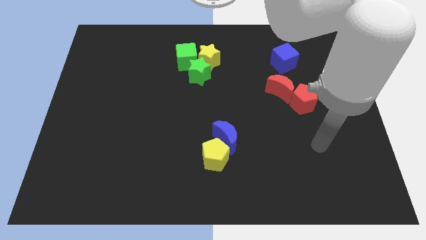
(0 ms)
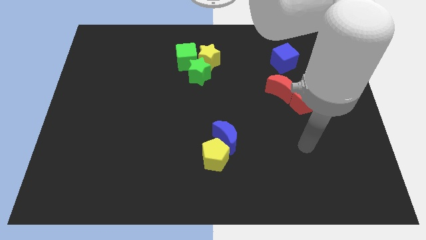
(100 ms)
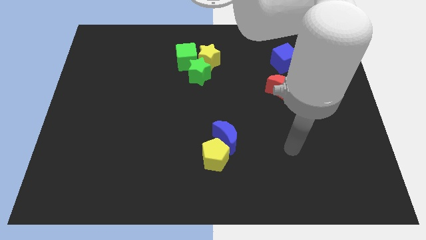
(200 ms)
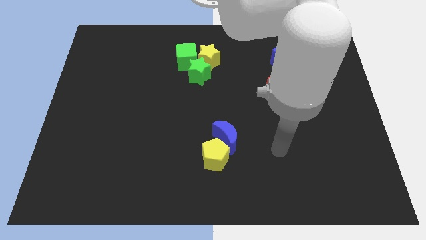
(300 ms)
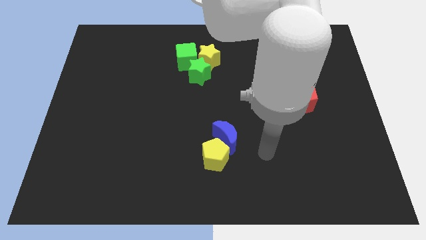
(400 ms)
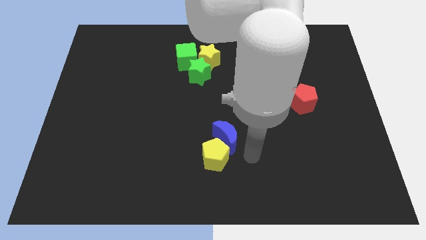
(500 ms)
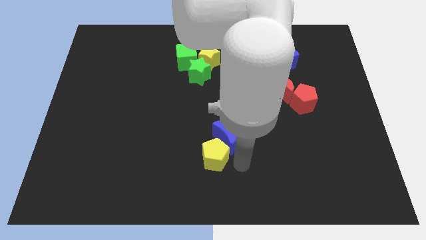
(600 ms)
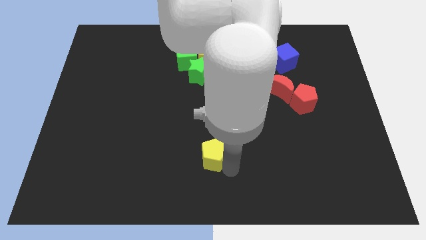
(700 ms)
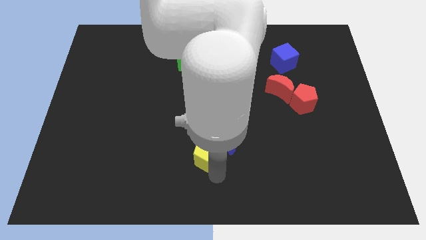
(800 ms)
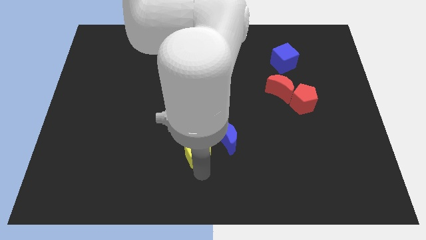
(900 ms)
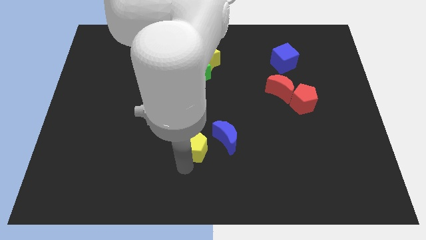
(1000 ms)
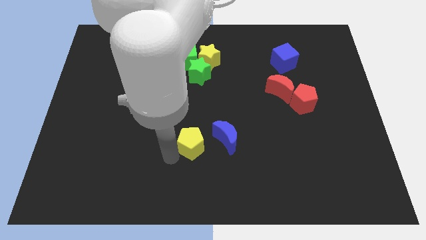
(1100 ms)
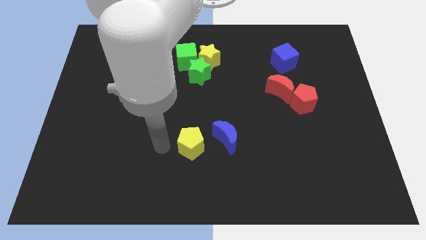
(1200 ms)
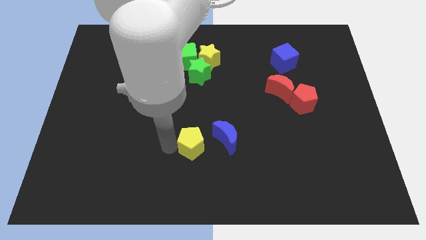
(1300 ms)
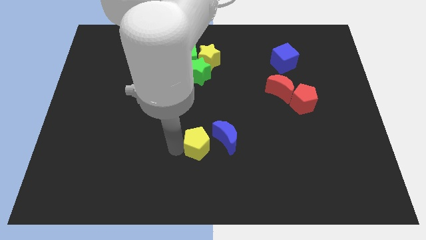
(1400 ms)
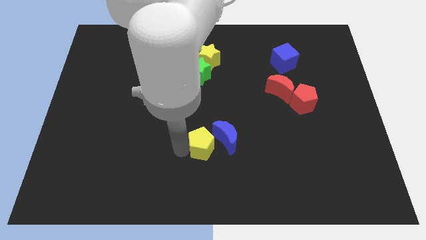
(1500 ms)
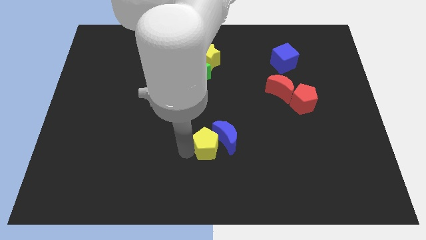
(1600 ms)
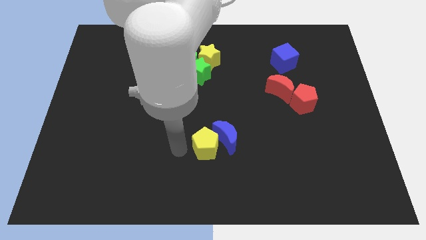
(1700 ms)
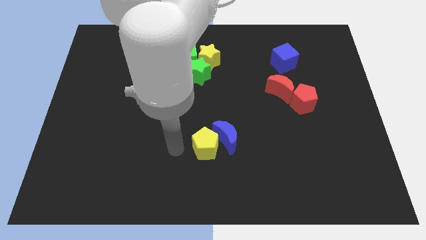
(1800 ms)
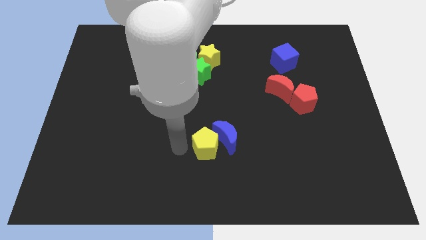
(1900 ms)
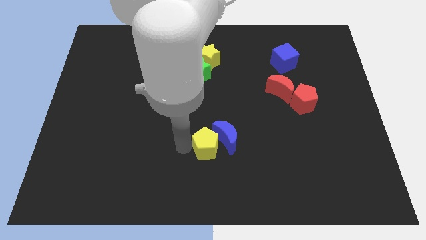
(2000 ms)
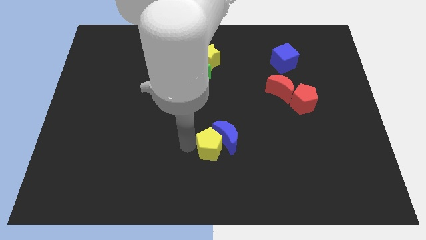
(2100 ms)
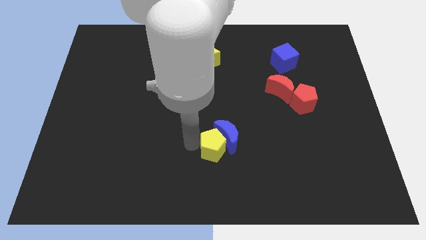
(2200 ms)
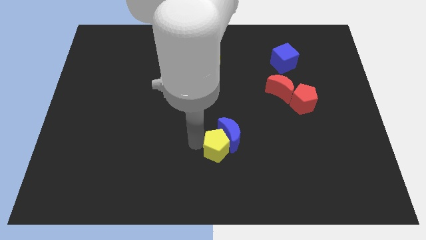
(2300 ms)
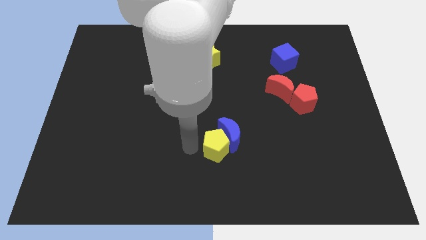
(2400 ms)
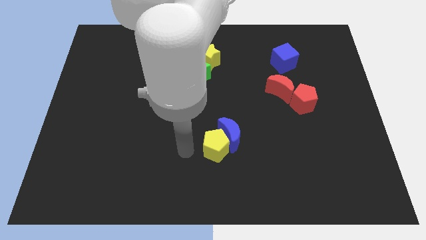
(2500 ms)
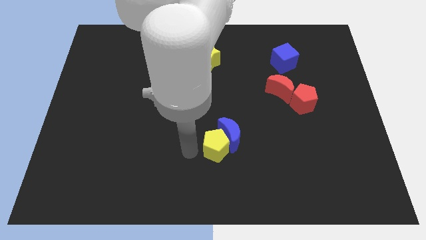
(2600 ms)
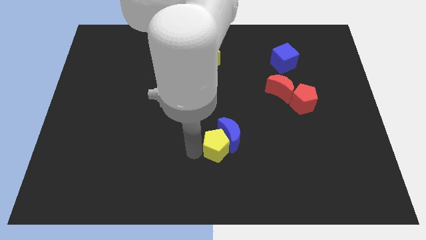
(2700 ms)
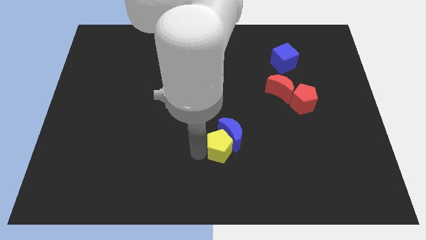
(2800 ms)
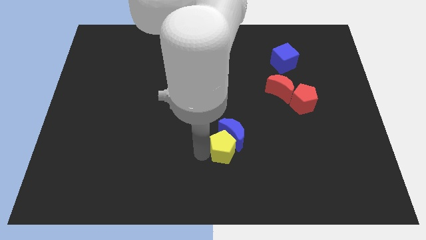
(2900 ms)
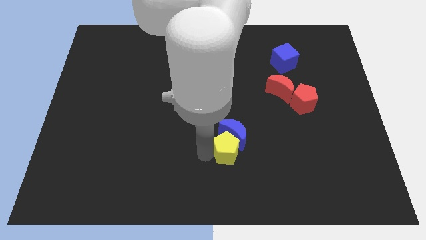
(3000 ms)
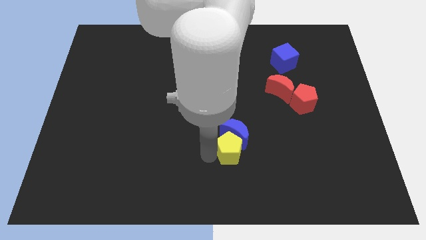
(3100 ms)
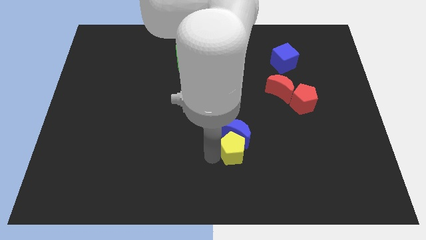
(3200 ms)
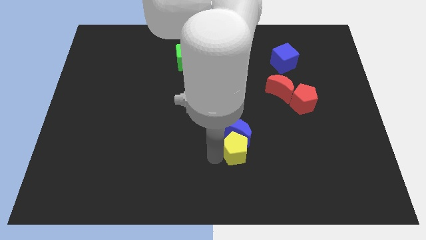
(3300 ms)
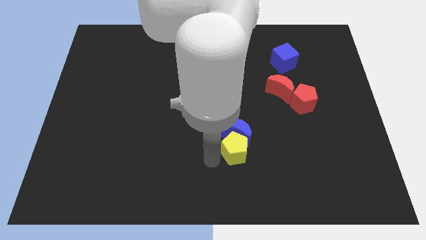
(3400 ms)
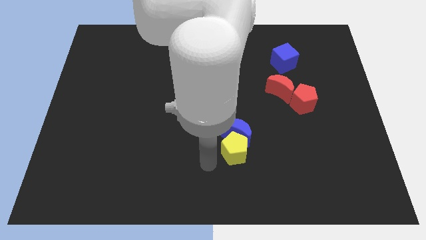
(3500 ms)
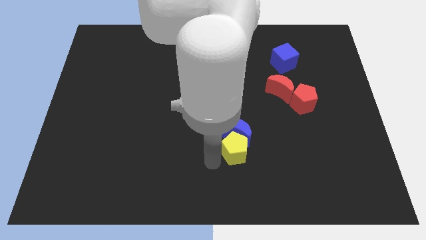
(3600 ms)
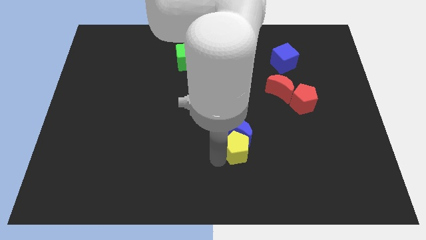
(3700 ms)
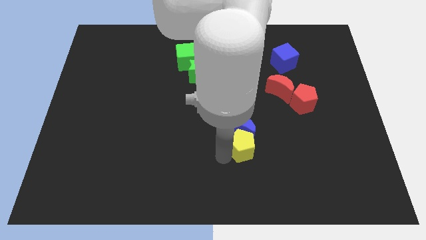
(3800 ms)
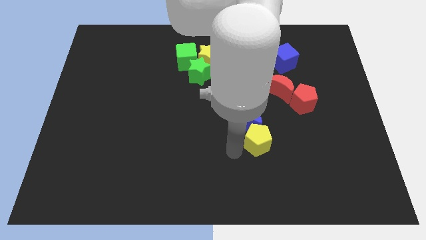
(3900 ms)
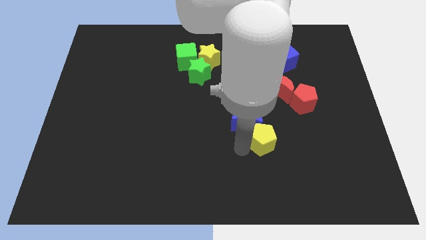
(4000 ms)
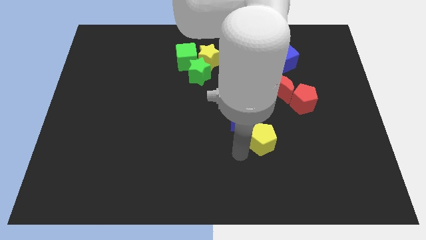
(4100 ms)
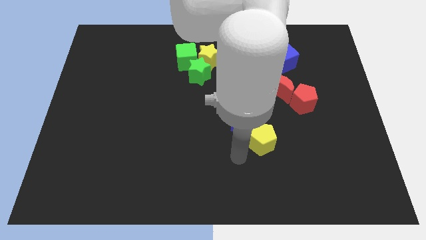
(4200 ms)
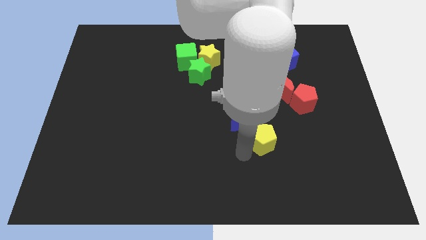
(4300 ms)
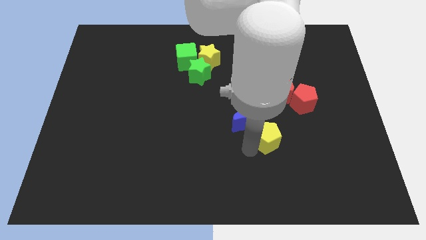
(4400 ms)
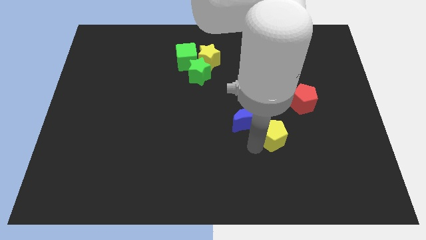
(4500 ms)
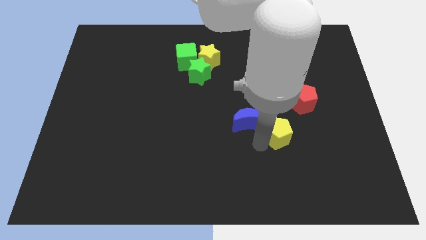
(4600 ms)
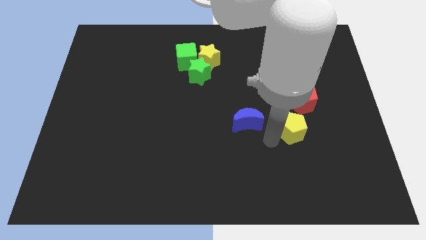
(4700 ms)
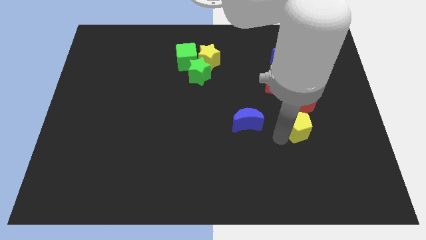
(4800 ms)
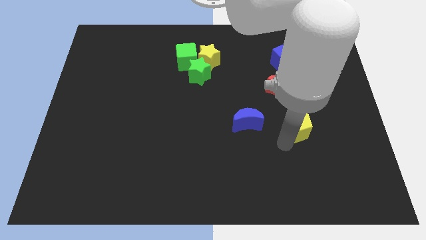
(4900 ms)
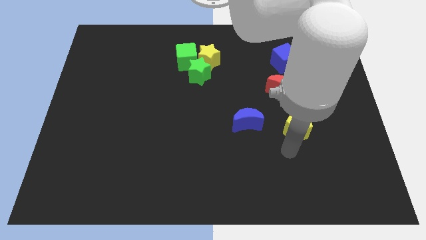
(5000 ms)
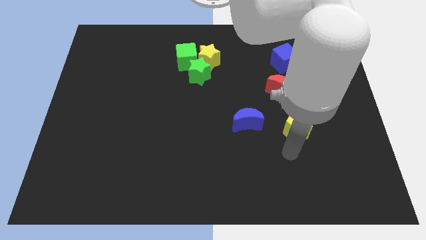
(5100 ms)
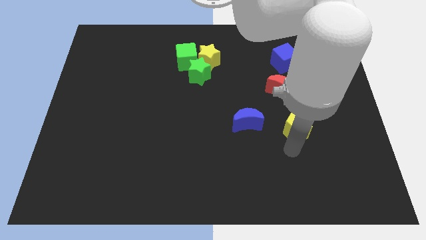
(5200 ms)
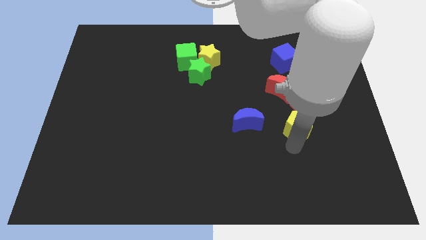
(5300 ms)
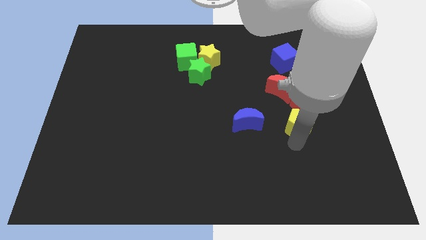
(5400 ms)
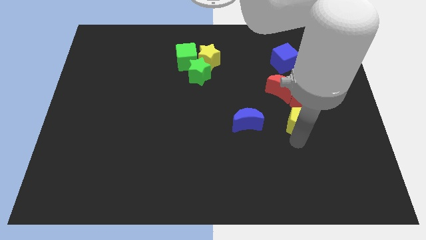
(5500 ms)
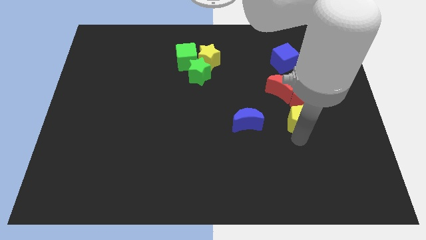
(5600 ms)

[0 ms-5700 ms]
put the yellow pentagon next to the red pentagon

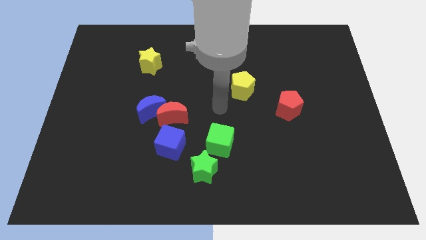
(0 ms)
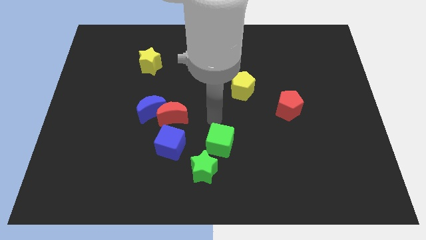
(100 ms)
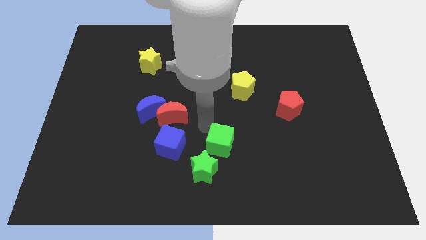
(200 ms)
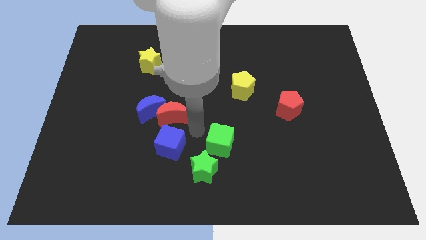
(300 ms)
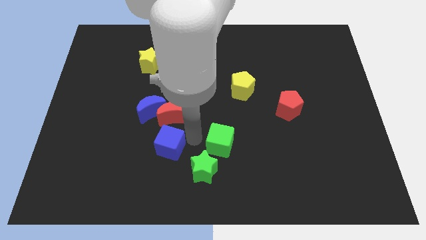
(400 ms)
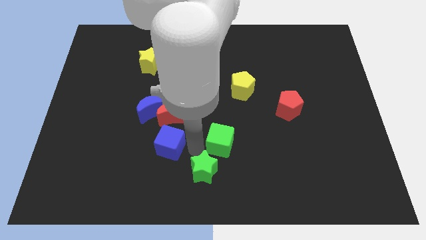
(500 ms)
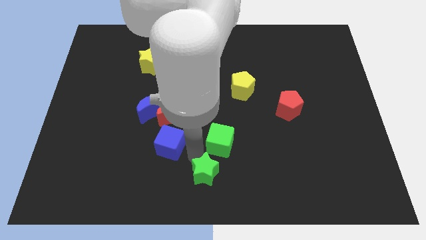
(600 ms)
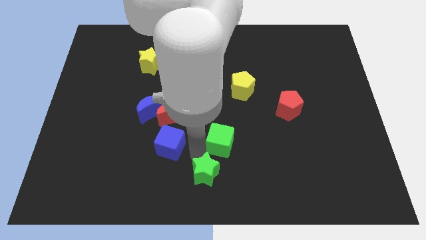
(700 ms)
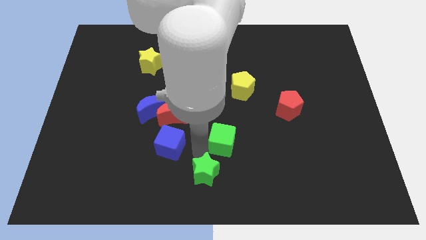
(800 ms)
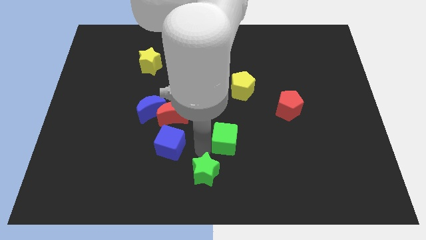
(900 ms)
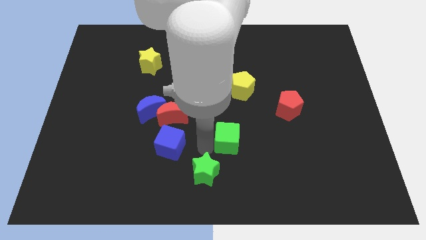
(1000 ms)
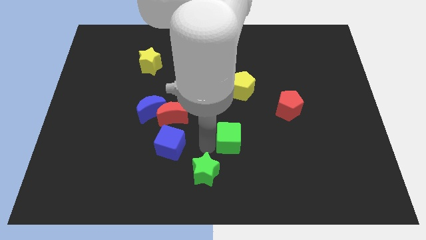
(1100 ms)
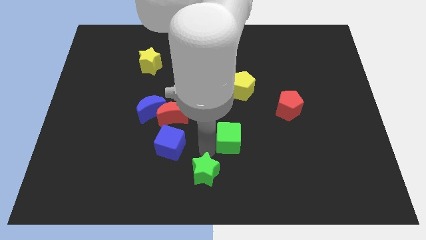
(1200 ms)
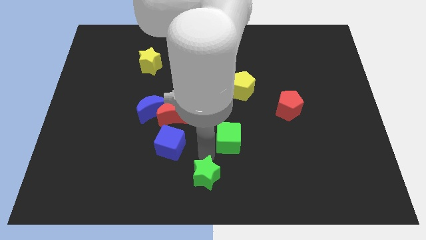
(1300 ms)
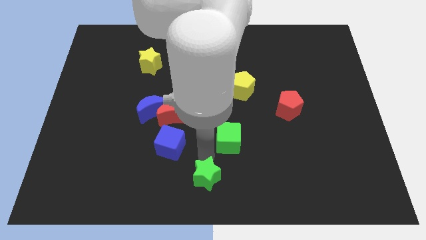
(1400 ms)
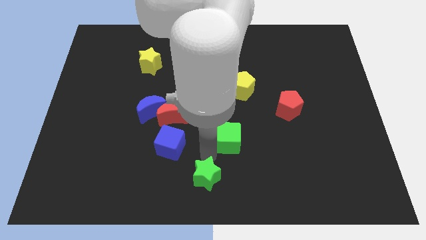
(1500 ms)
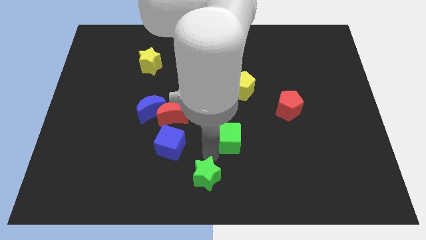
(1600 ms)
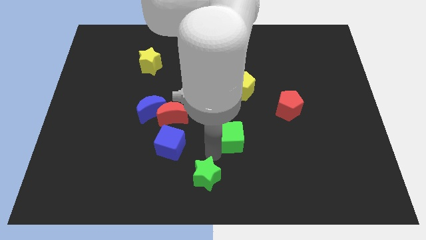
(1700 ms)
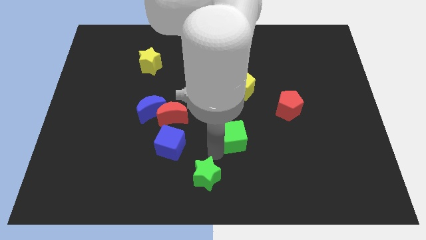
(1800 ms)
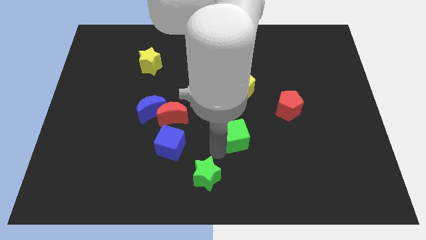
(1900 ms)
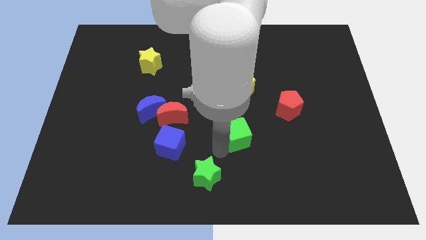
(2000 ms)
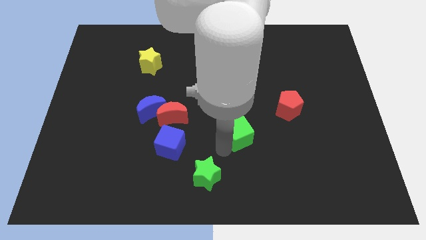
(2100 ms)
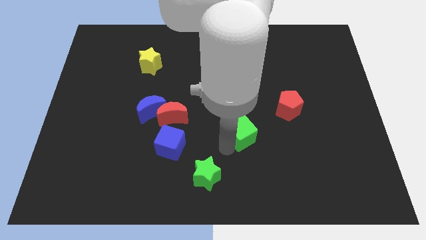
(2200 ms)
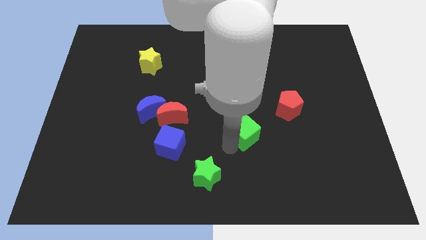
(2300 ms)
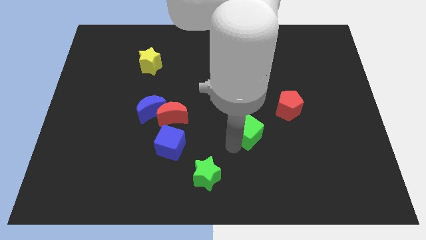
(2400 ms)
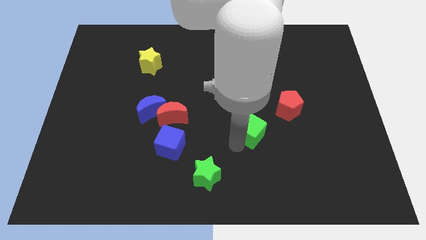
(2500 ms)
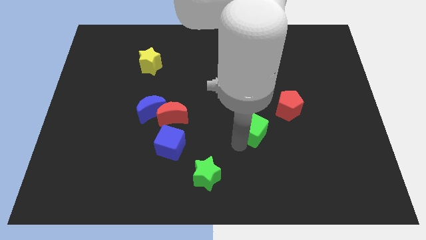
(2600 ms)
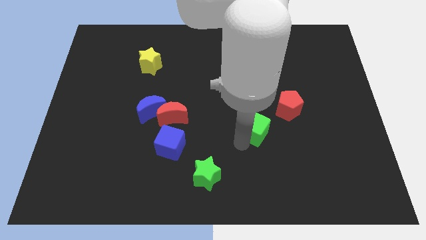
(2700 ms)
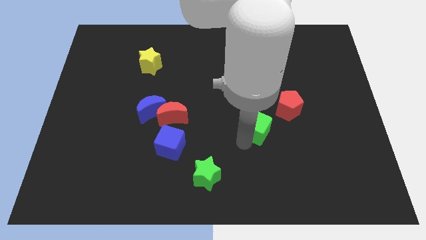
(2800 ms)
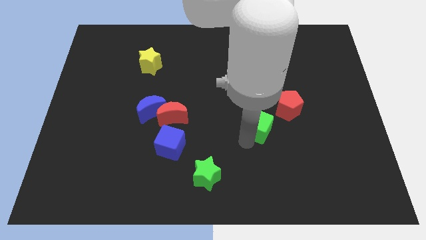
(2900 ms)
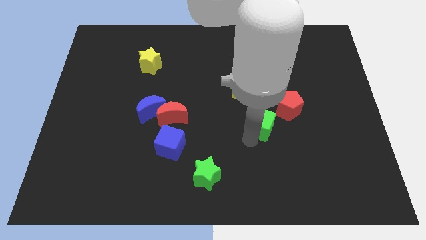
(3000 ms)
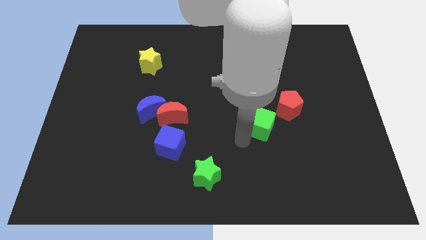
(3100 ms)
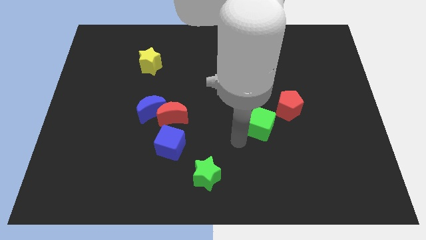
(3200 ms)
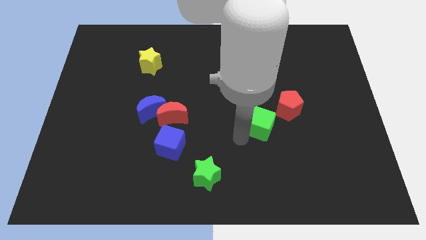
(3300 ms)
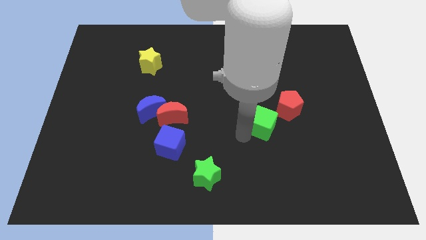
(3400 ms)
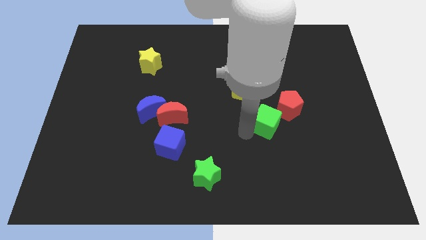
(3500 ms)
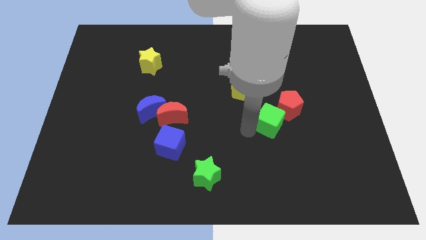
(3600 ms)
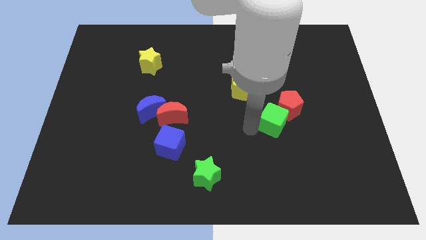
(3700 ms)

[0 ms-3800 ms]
slide the green cube next to the red pentagon
